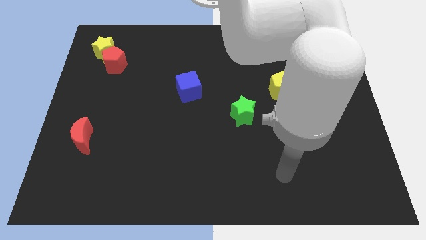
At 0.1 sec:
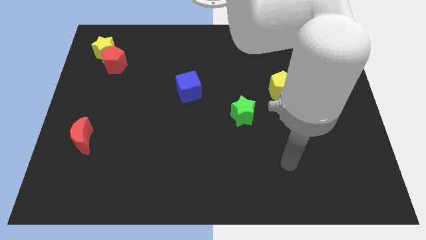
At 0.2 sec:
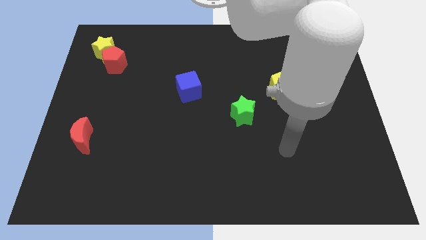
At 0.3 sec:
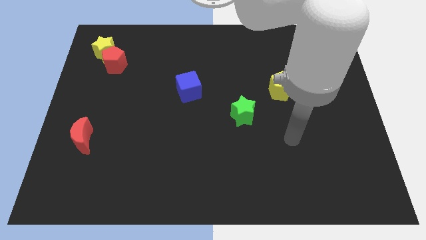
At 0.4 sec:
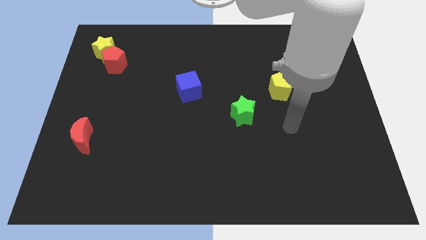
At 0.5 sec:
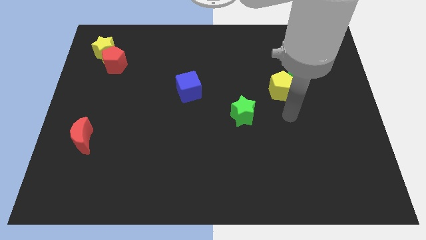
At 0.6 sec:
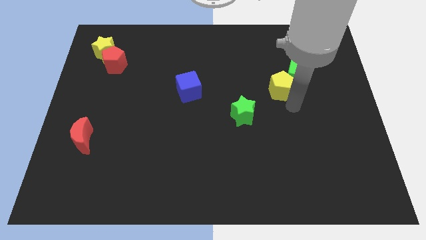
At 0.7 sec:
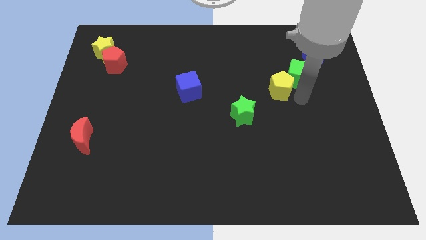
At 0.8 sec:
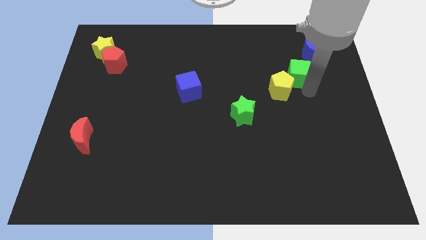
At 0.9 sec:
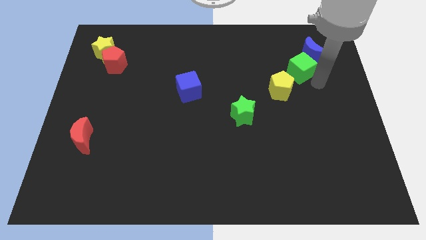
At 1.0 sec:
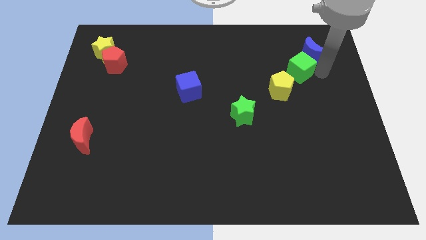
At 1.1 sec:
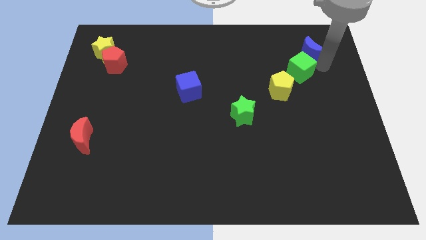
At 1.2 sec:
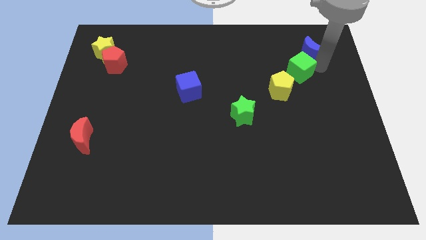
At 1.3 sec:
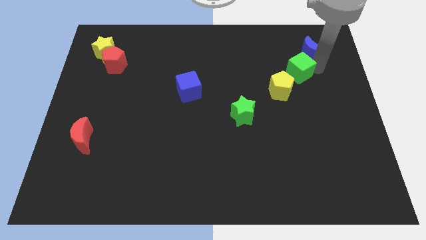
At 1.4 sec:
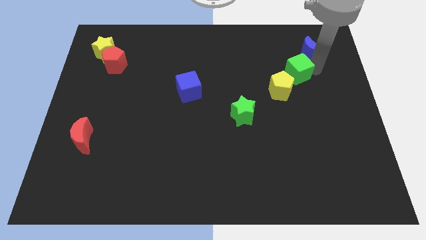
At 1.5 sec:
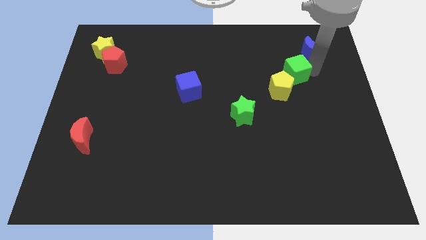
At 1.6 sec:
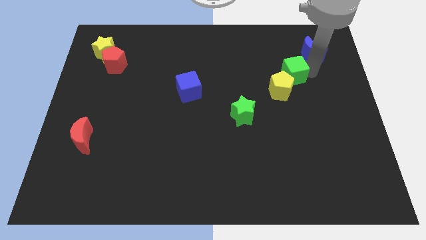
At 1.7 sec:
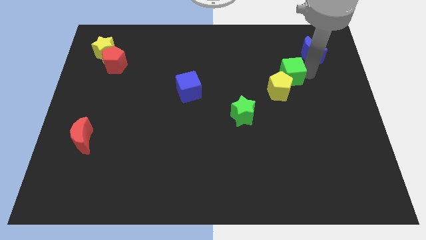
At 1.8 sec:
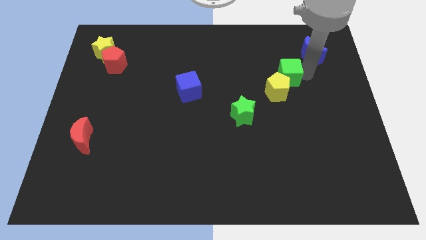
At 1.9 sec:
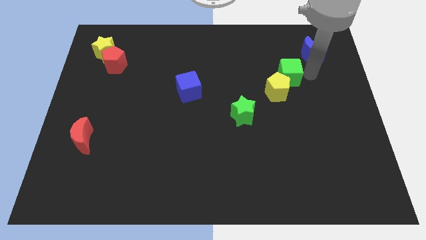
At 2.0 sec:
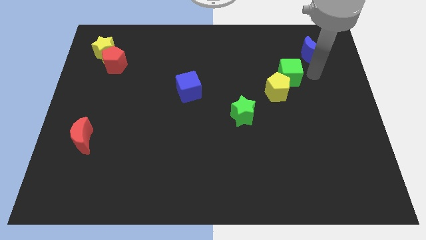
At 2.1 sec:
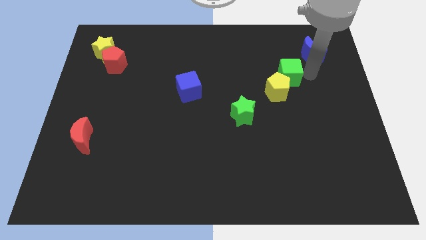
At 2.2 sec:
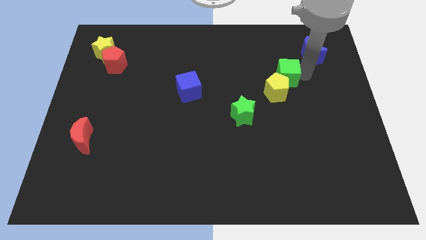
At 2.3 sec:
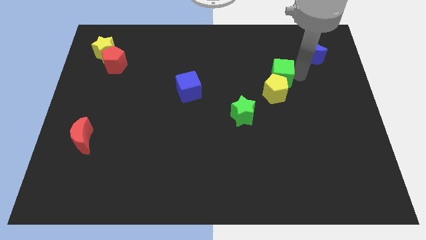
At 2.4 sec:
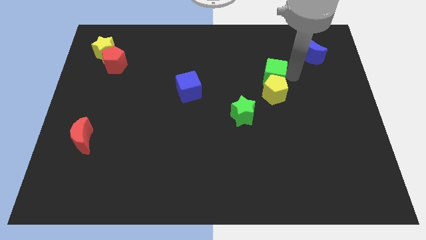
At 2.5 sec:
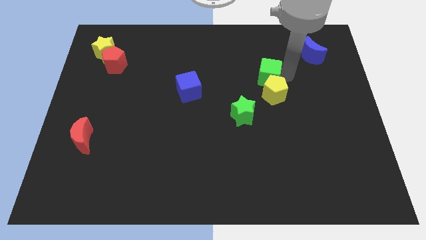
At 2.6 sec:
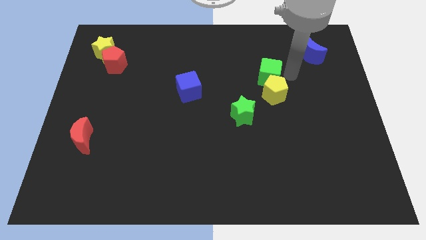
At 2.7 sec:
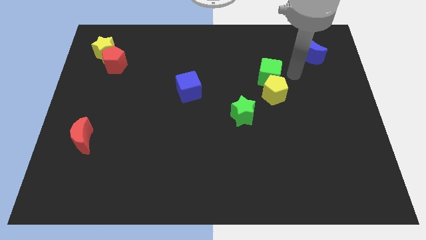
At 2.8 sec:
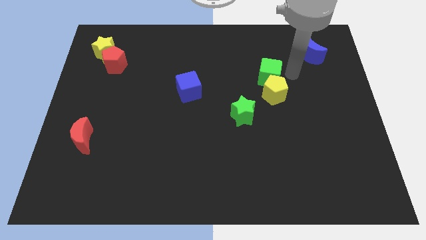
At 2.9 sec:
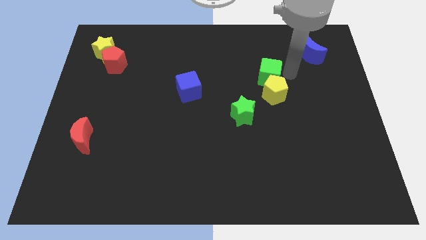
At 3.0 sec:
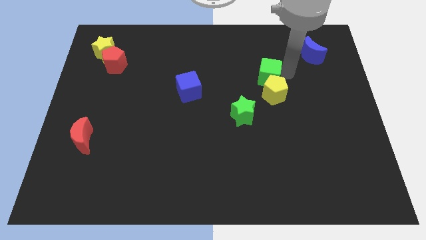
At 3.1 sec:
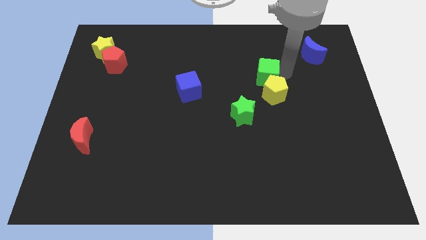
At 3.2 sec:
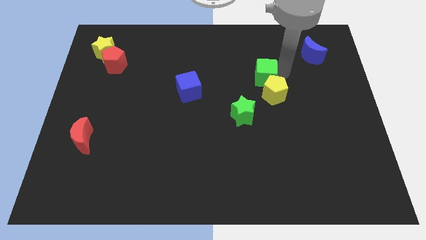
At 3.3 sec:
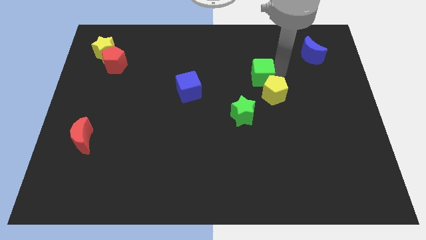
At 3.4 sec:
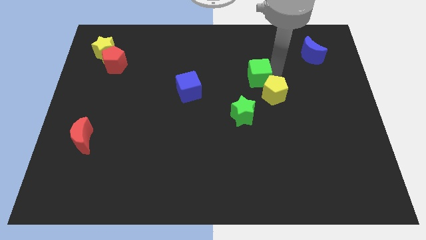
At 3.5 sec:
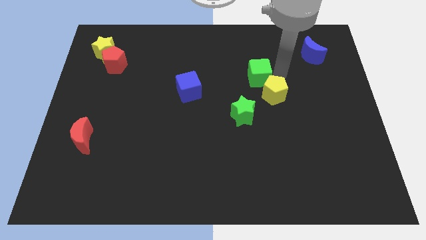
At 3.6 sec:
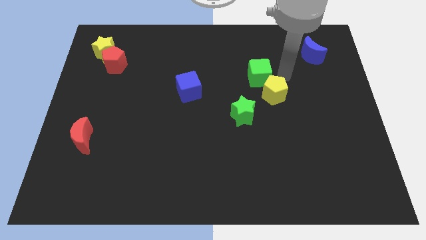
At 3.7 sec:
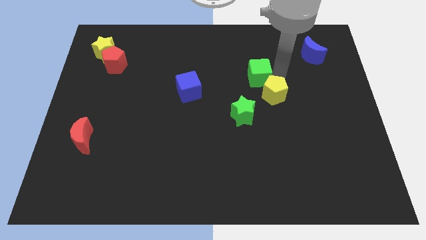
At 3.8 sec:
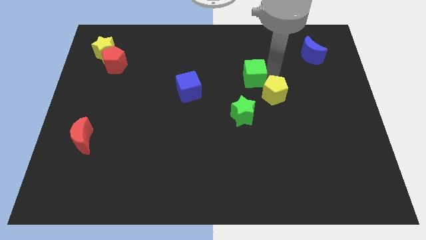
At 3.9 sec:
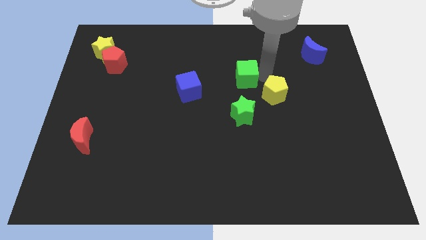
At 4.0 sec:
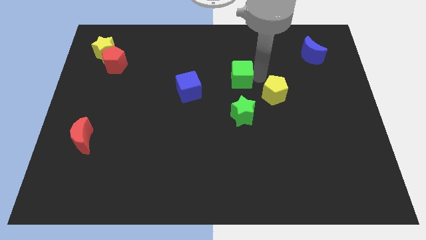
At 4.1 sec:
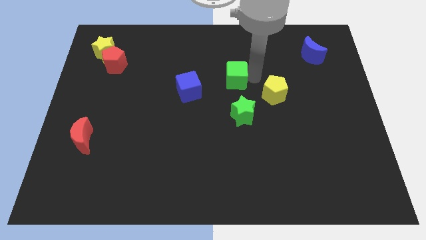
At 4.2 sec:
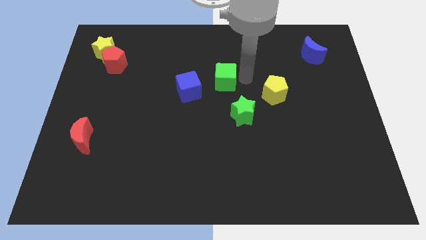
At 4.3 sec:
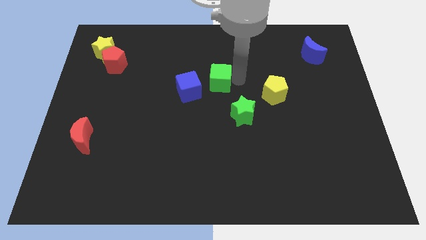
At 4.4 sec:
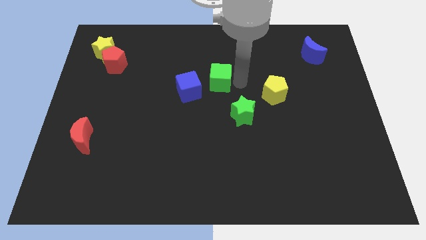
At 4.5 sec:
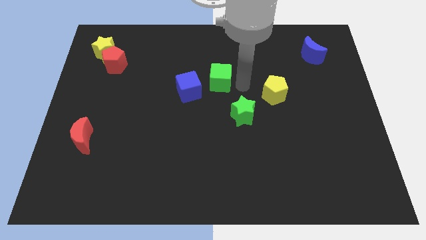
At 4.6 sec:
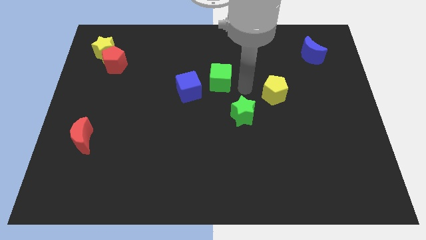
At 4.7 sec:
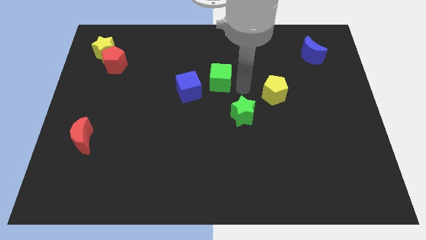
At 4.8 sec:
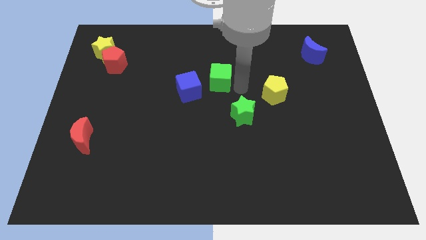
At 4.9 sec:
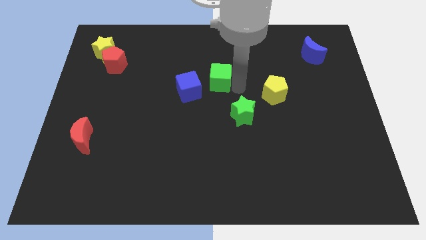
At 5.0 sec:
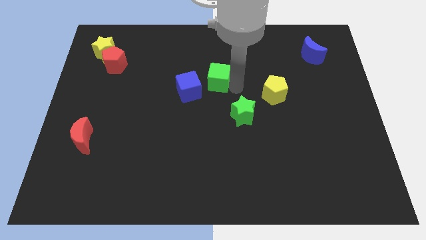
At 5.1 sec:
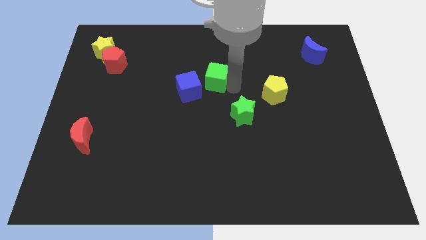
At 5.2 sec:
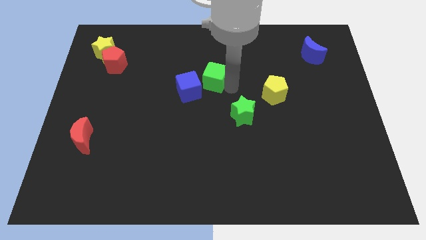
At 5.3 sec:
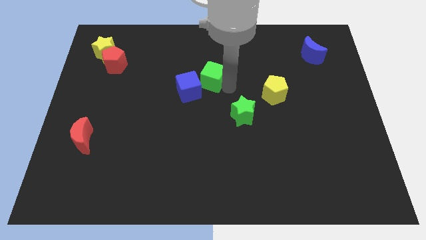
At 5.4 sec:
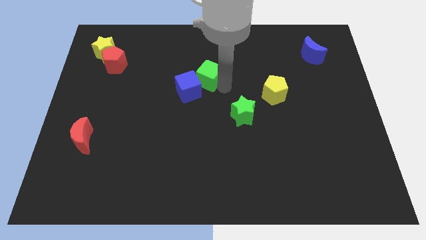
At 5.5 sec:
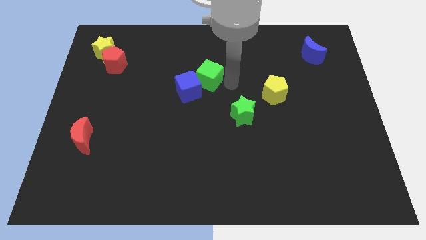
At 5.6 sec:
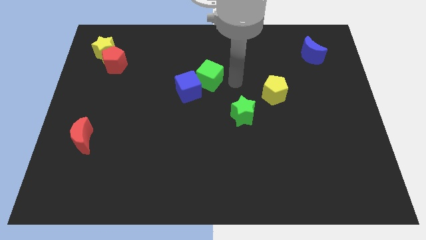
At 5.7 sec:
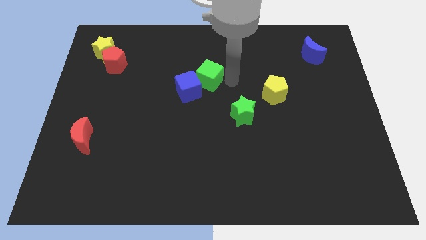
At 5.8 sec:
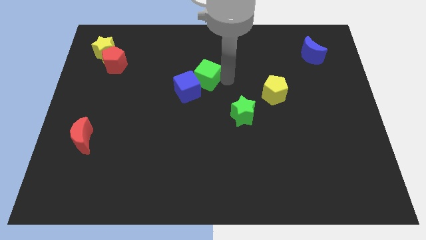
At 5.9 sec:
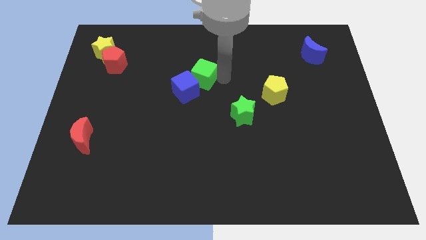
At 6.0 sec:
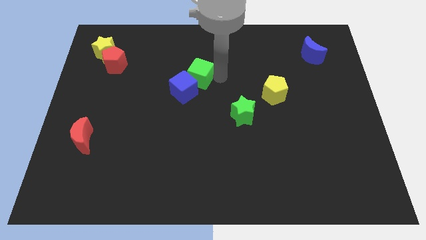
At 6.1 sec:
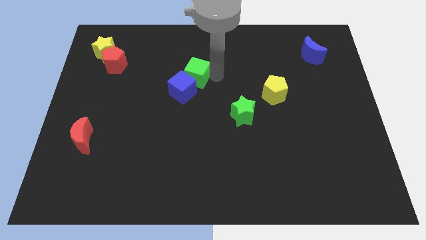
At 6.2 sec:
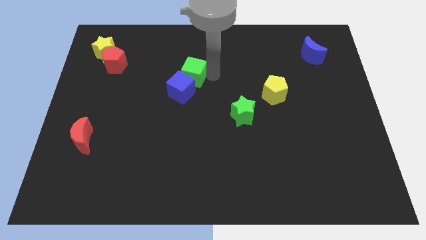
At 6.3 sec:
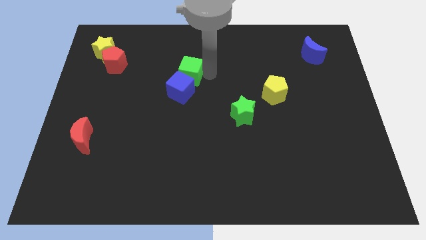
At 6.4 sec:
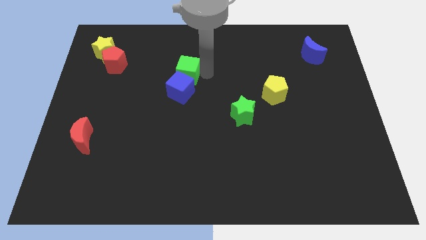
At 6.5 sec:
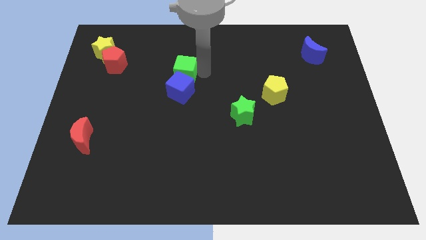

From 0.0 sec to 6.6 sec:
push the green cube to the top left side of the blue cube

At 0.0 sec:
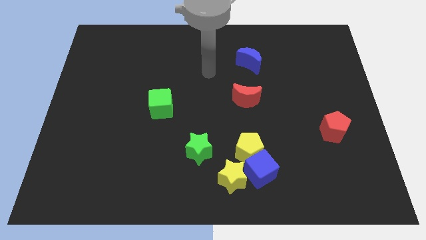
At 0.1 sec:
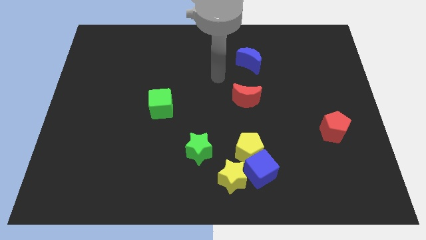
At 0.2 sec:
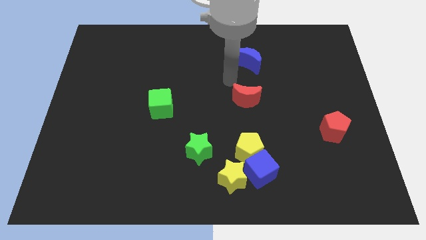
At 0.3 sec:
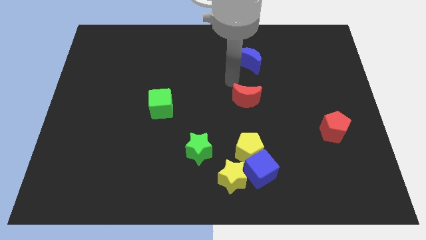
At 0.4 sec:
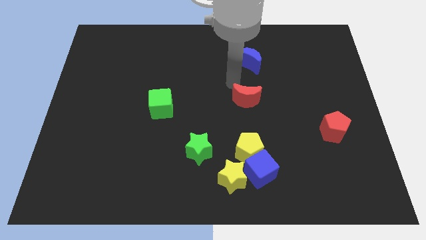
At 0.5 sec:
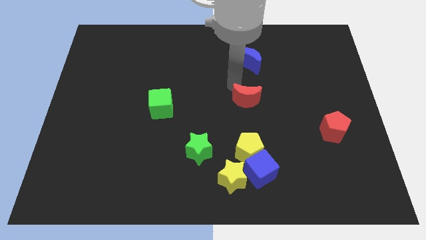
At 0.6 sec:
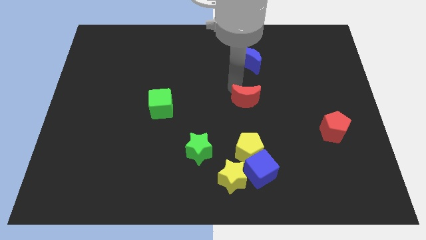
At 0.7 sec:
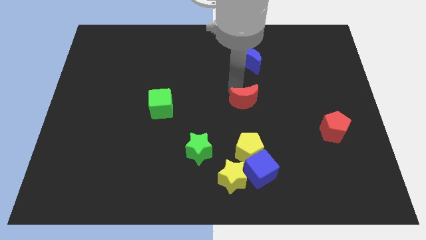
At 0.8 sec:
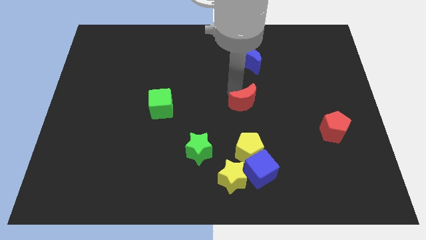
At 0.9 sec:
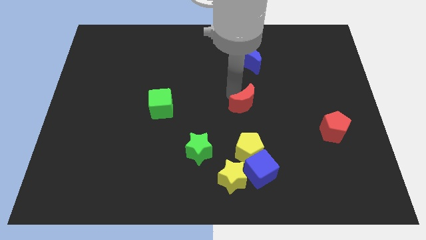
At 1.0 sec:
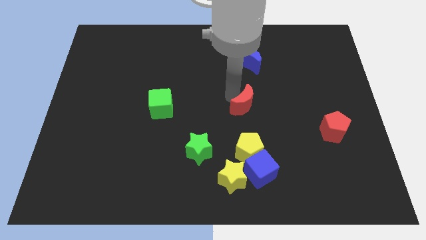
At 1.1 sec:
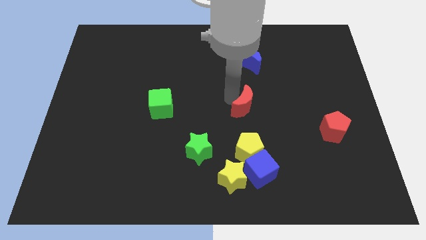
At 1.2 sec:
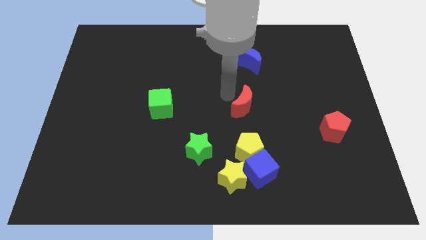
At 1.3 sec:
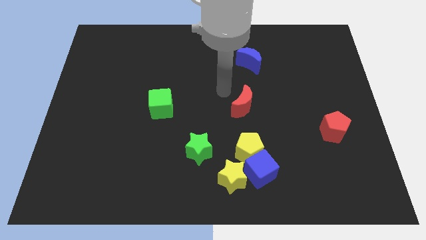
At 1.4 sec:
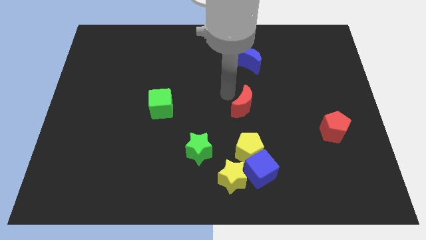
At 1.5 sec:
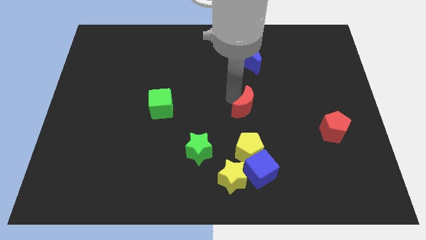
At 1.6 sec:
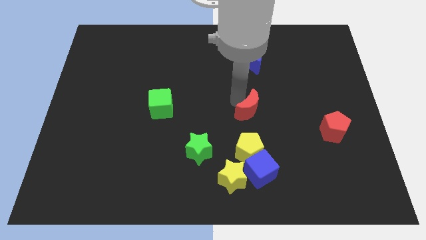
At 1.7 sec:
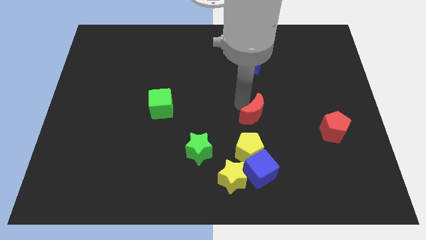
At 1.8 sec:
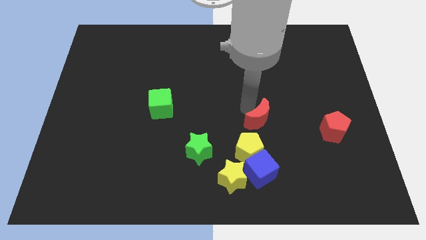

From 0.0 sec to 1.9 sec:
push the red moon diagonally up and to the right of the yellow pentagon
